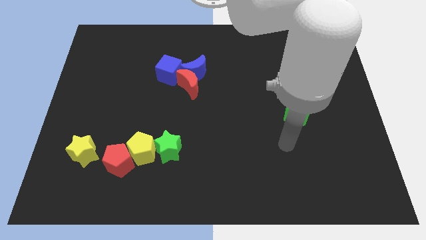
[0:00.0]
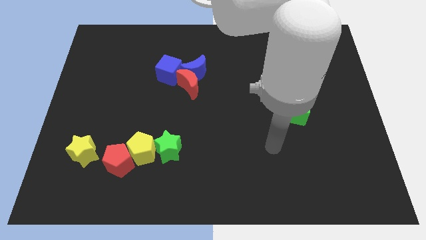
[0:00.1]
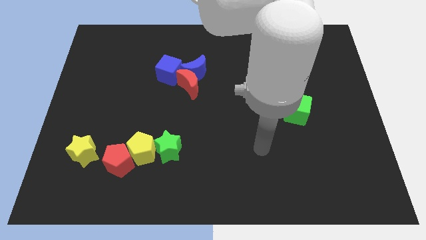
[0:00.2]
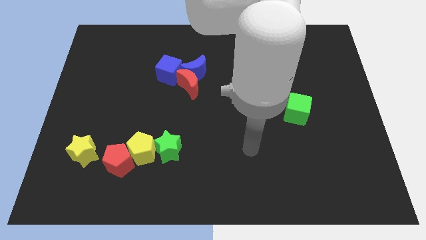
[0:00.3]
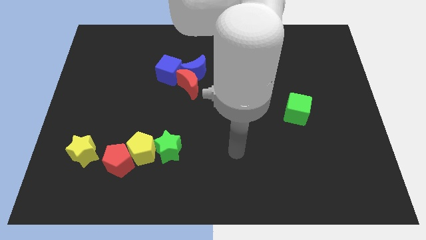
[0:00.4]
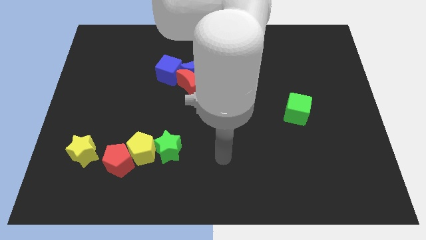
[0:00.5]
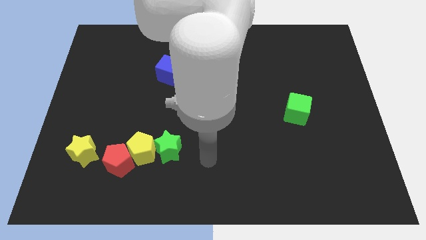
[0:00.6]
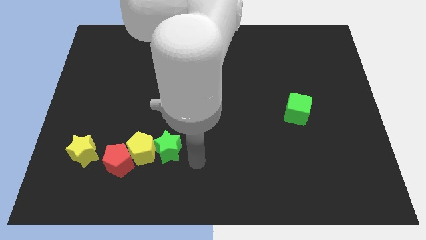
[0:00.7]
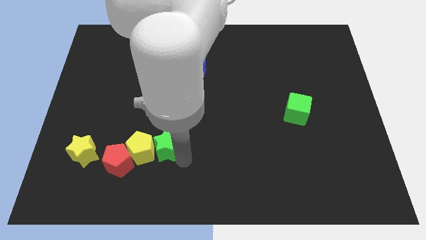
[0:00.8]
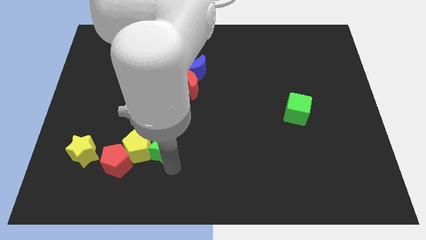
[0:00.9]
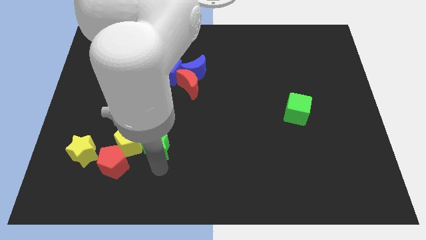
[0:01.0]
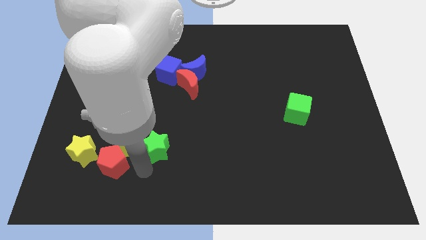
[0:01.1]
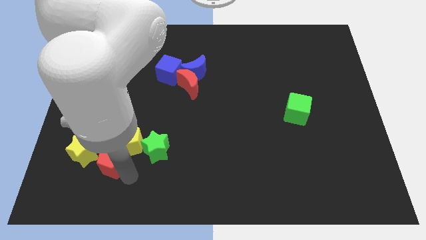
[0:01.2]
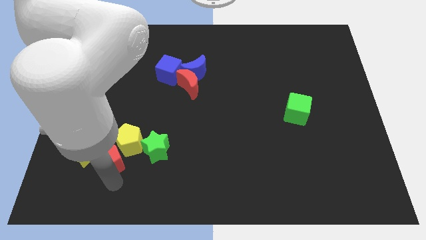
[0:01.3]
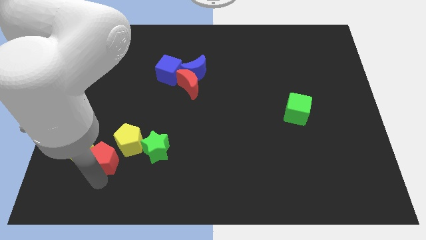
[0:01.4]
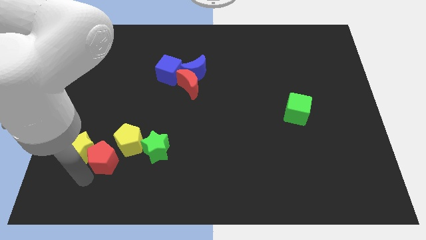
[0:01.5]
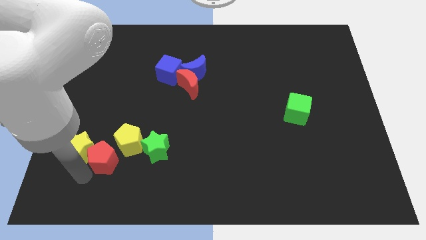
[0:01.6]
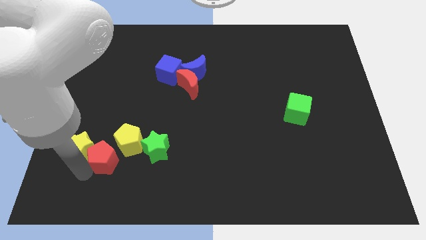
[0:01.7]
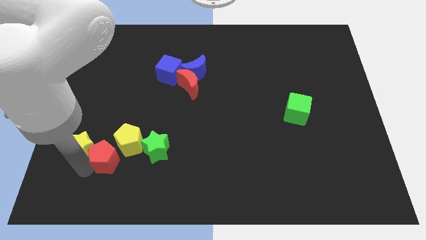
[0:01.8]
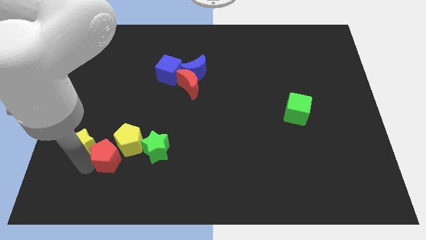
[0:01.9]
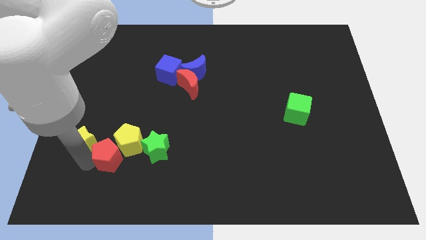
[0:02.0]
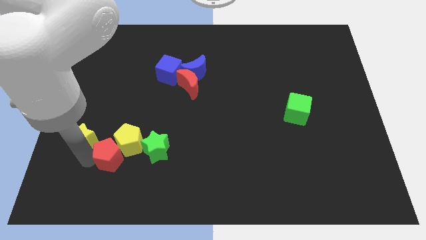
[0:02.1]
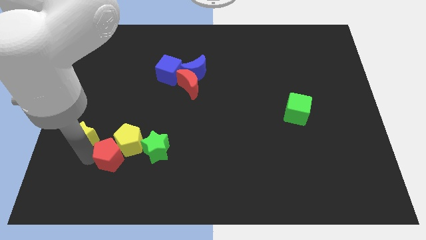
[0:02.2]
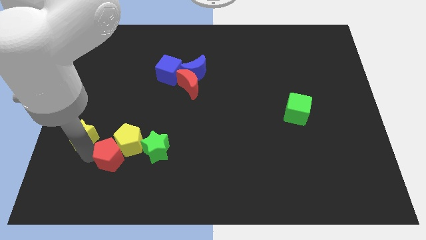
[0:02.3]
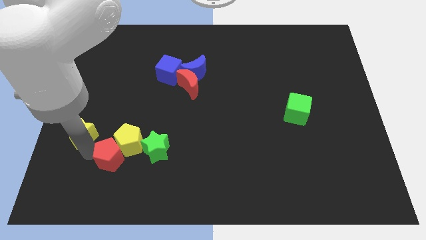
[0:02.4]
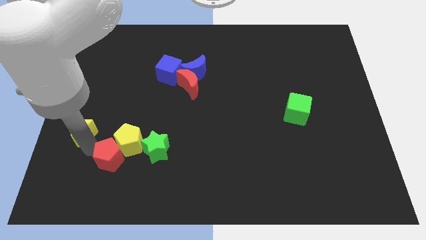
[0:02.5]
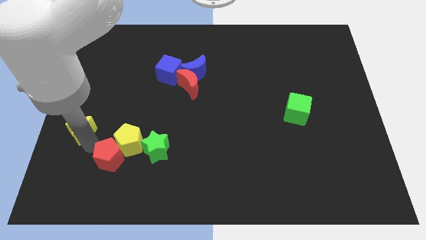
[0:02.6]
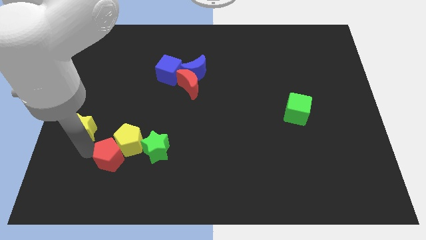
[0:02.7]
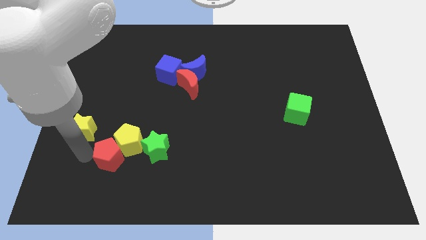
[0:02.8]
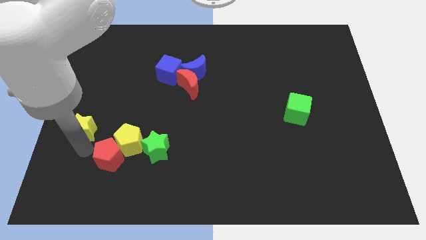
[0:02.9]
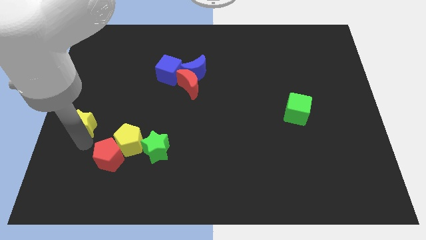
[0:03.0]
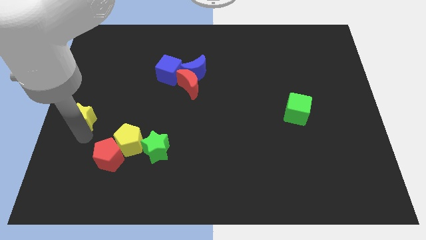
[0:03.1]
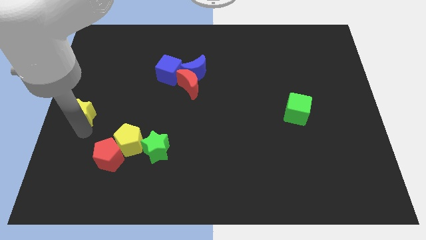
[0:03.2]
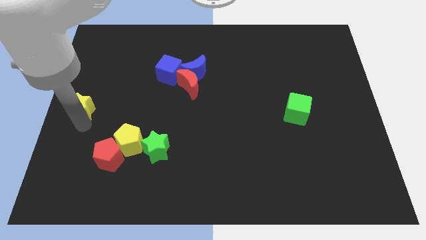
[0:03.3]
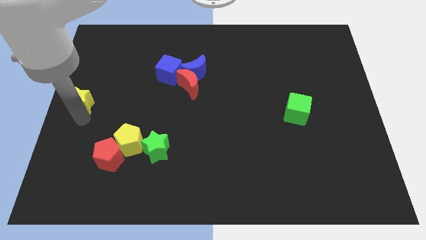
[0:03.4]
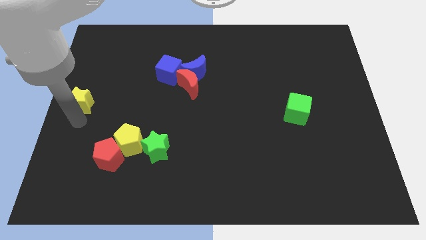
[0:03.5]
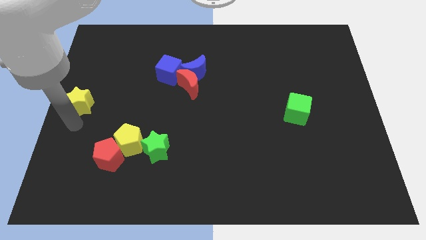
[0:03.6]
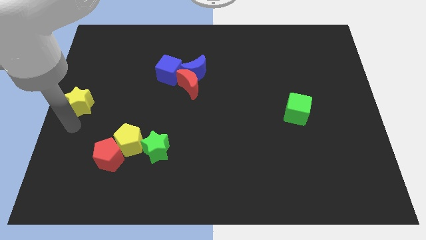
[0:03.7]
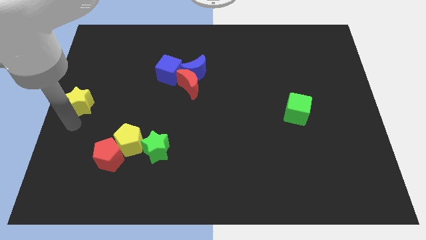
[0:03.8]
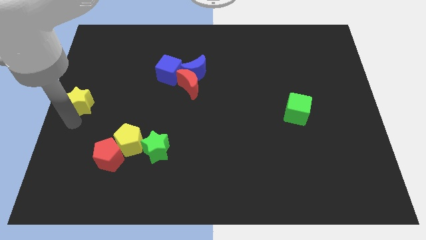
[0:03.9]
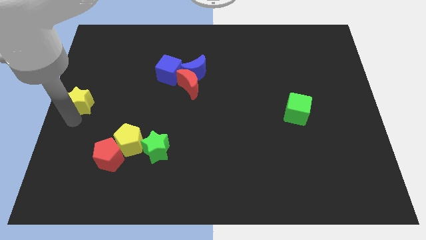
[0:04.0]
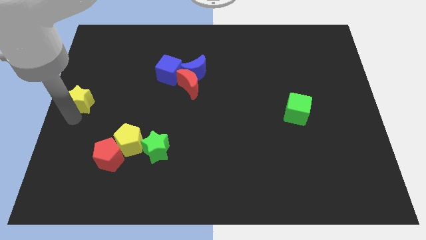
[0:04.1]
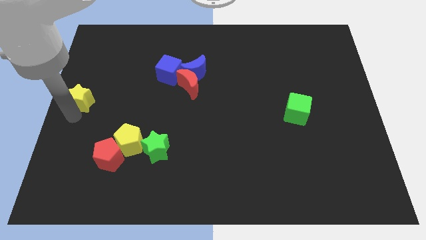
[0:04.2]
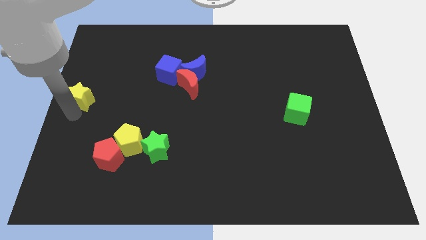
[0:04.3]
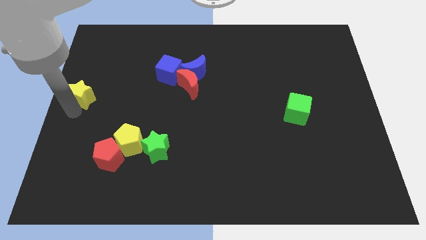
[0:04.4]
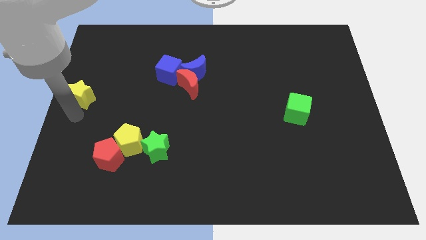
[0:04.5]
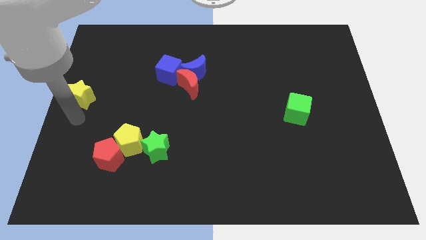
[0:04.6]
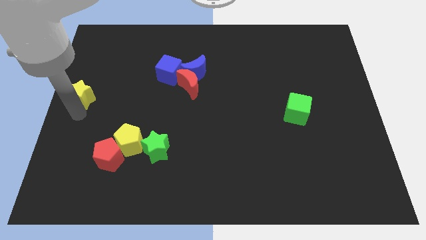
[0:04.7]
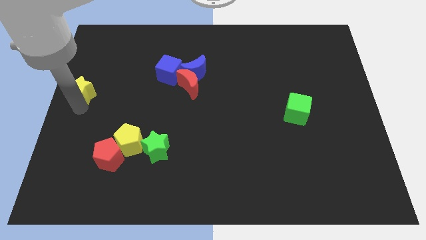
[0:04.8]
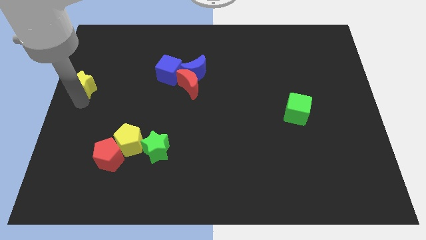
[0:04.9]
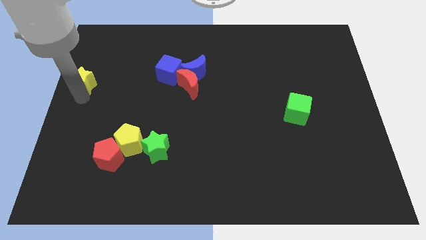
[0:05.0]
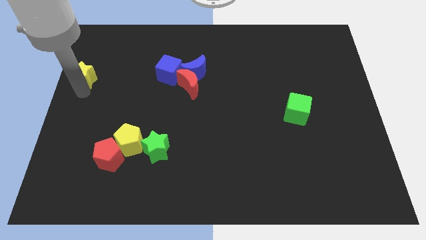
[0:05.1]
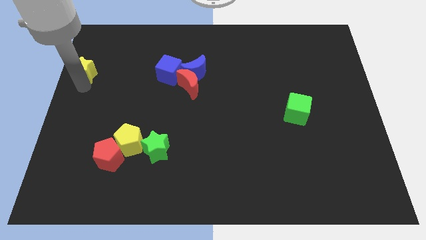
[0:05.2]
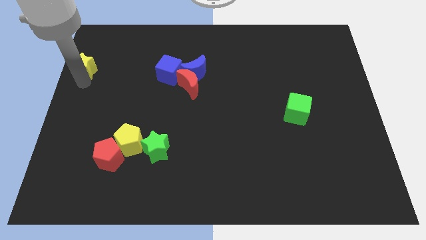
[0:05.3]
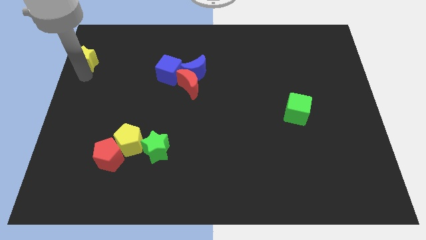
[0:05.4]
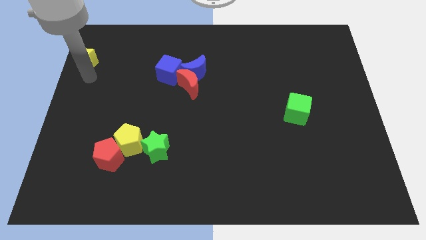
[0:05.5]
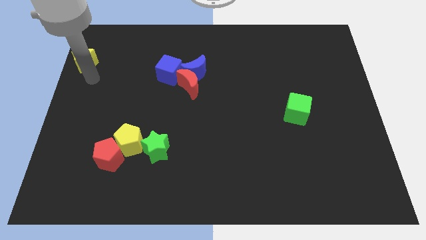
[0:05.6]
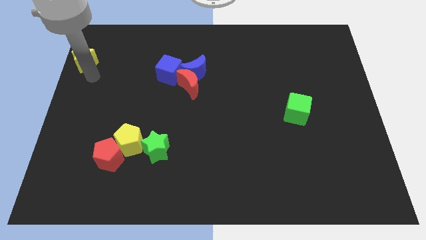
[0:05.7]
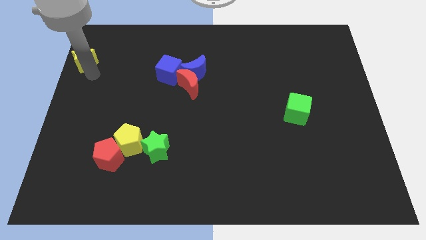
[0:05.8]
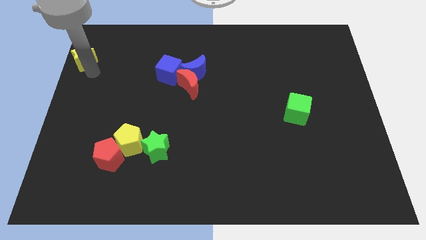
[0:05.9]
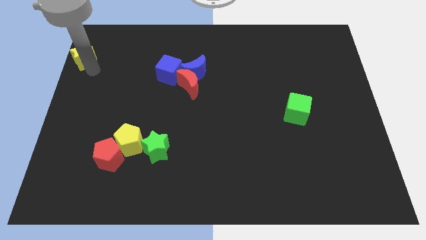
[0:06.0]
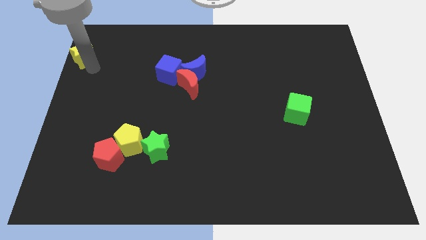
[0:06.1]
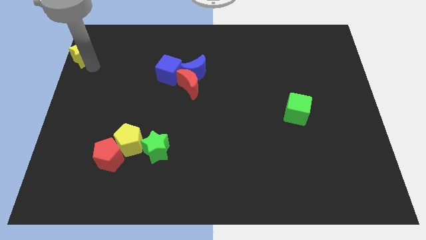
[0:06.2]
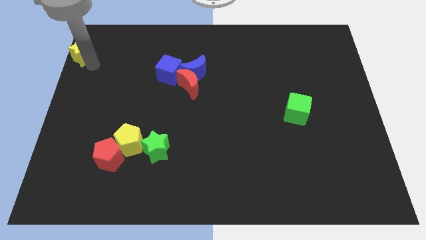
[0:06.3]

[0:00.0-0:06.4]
put the yellow star to the top left

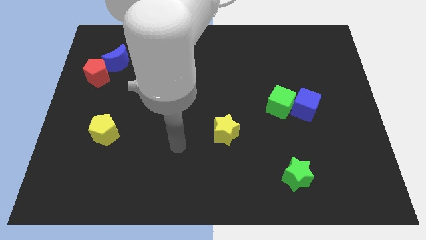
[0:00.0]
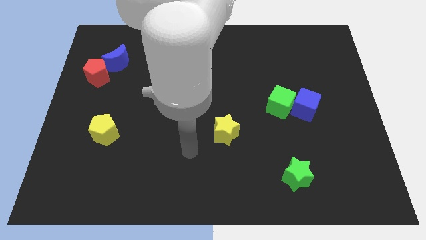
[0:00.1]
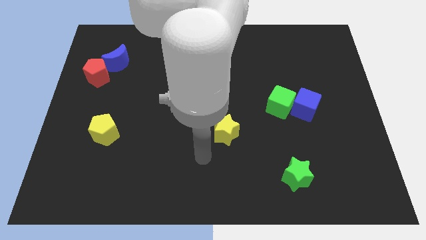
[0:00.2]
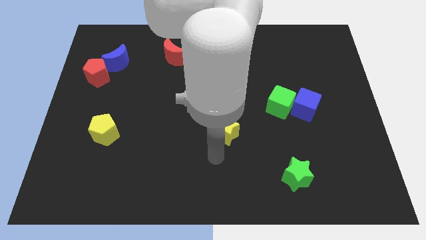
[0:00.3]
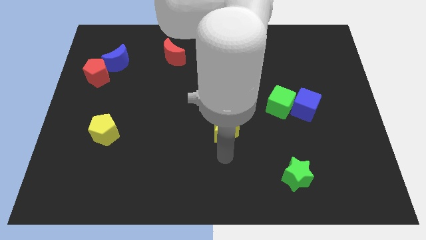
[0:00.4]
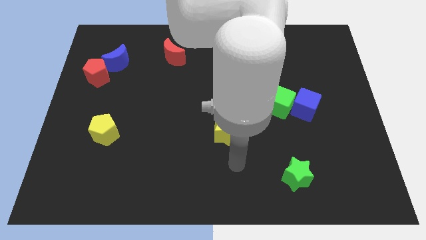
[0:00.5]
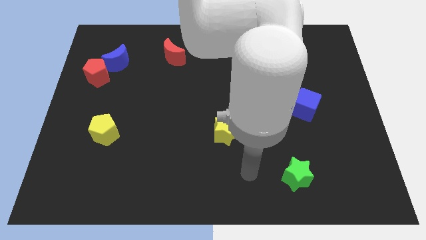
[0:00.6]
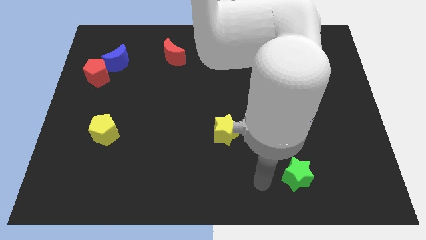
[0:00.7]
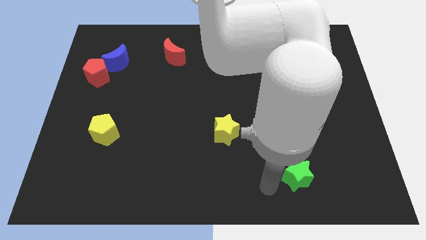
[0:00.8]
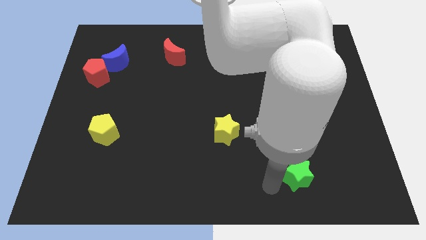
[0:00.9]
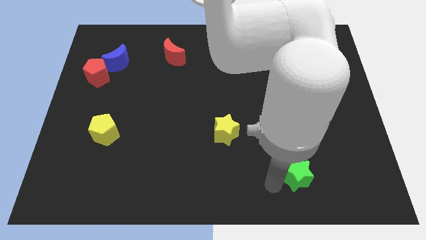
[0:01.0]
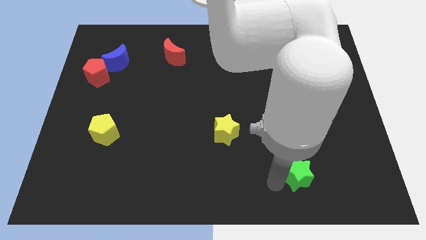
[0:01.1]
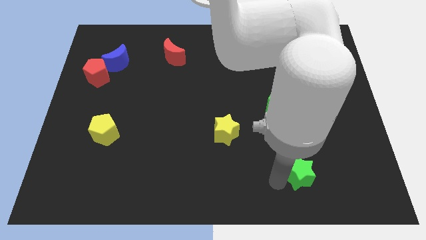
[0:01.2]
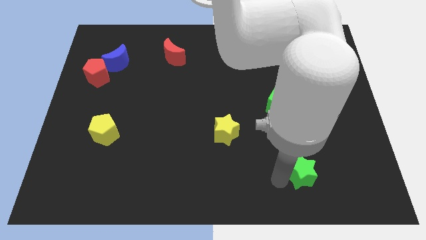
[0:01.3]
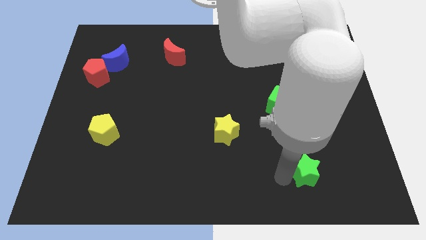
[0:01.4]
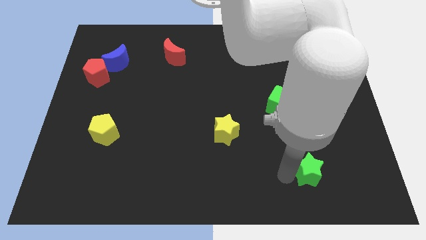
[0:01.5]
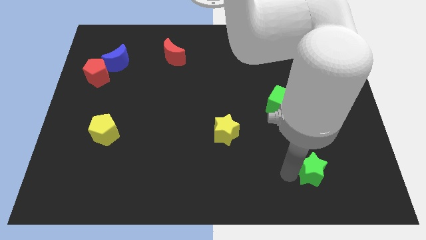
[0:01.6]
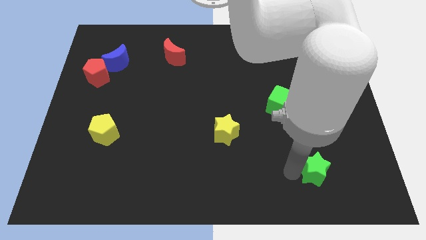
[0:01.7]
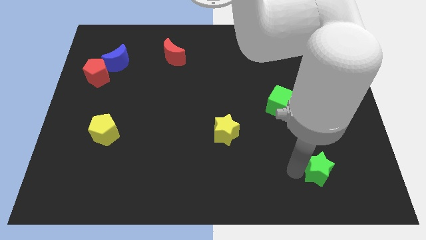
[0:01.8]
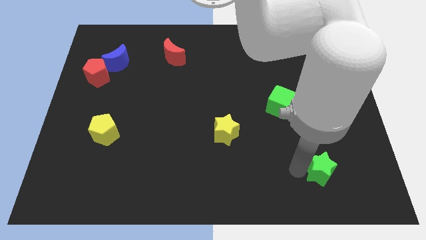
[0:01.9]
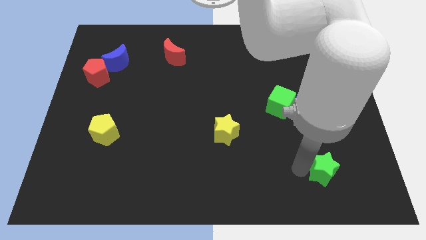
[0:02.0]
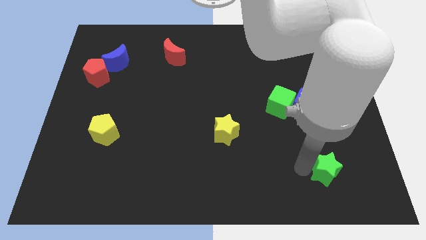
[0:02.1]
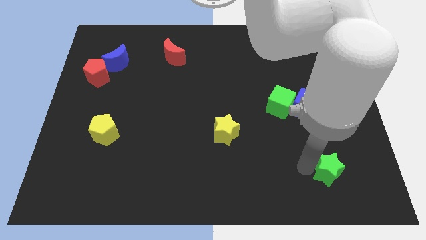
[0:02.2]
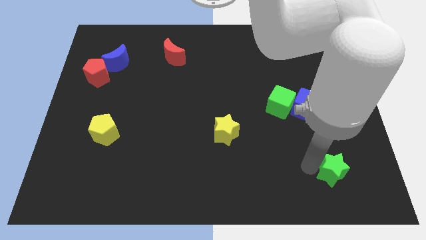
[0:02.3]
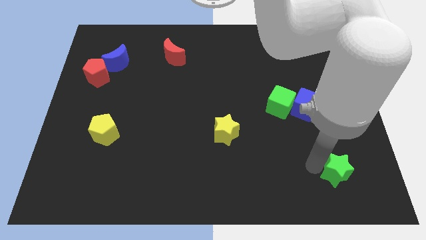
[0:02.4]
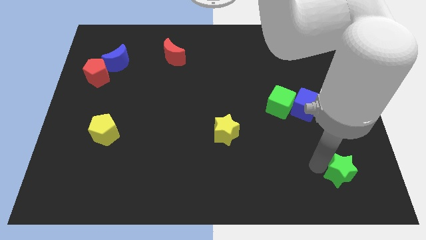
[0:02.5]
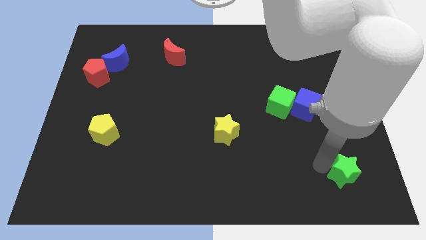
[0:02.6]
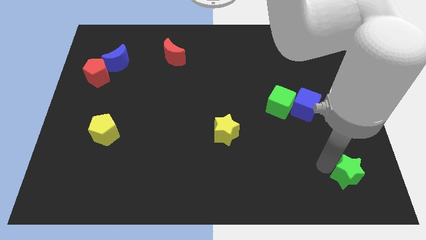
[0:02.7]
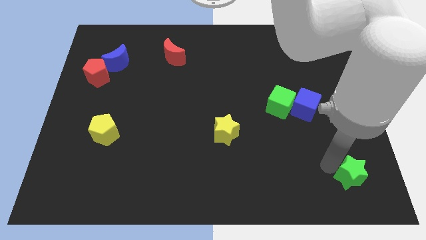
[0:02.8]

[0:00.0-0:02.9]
push the green star to the bottom right of the board
